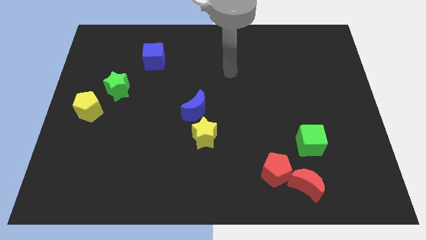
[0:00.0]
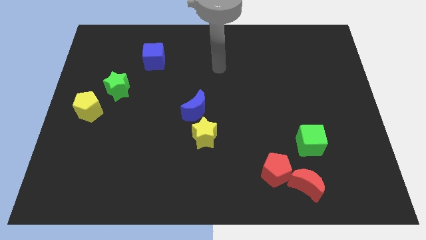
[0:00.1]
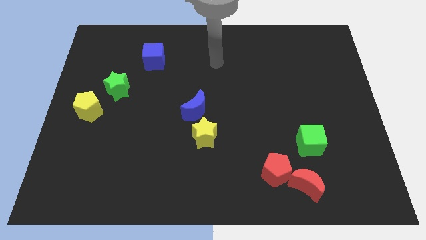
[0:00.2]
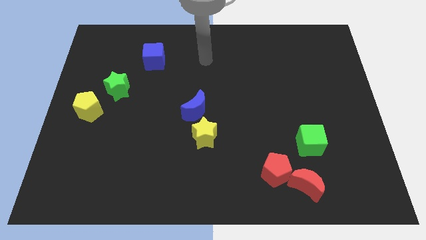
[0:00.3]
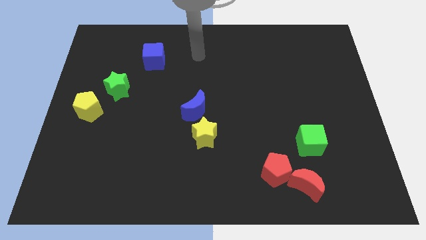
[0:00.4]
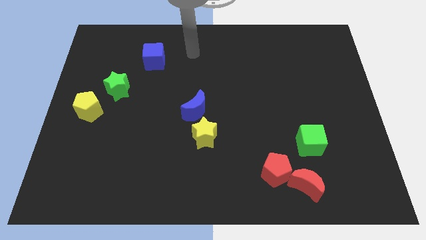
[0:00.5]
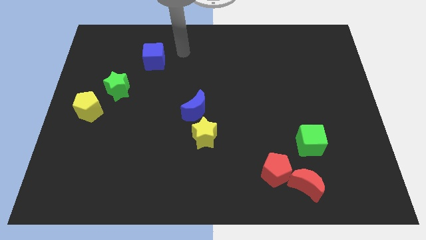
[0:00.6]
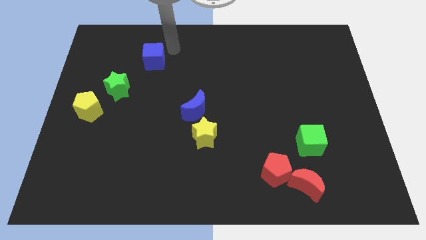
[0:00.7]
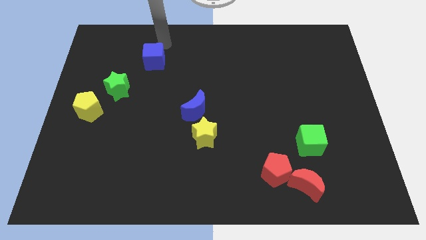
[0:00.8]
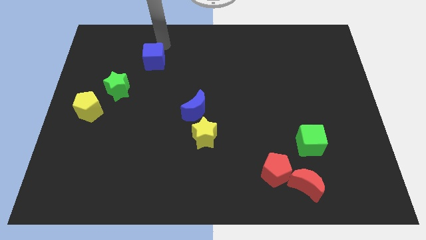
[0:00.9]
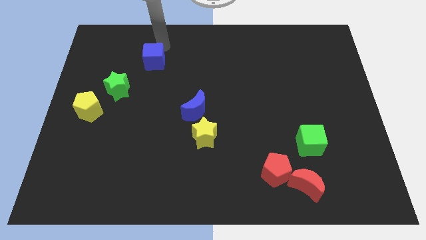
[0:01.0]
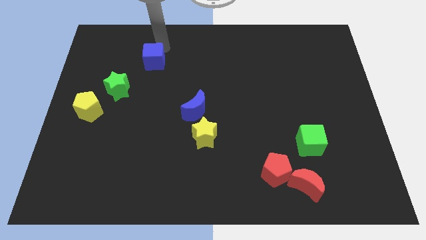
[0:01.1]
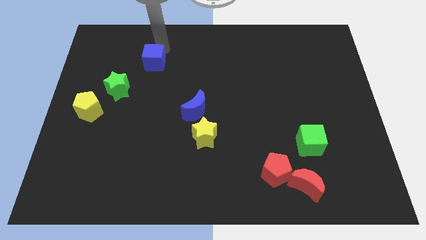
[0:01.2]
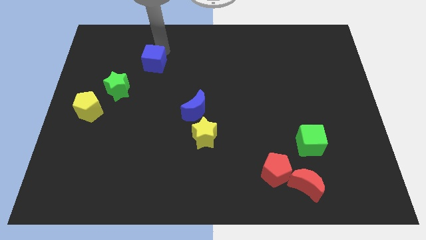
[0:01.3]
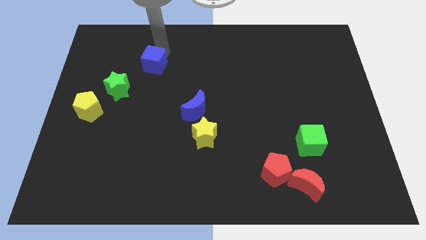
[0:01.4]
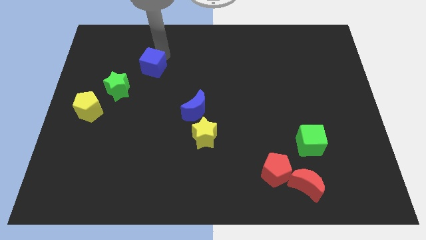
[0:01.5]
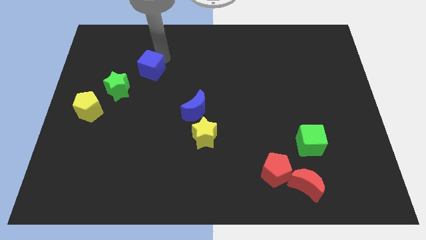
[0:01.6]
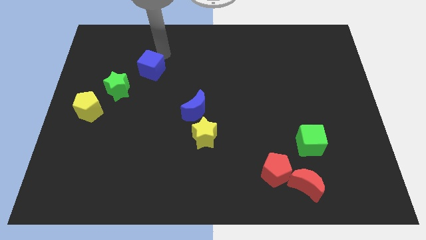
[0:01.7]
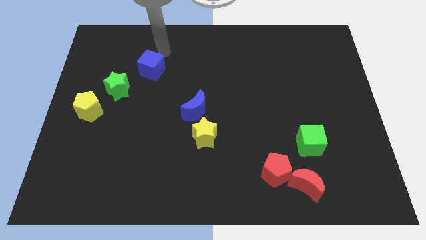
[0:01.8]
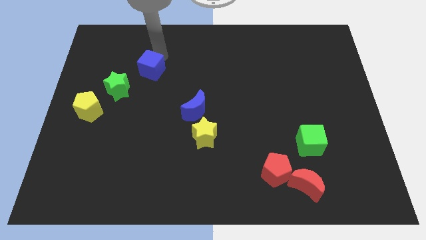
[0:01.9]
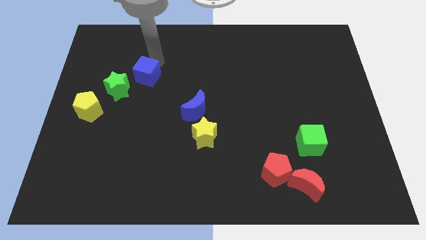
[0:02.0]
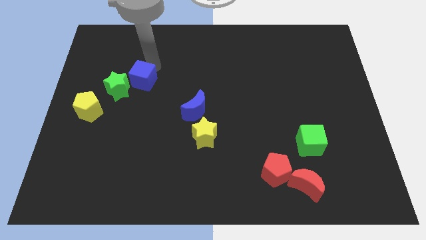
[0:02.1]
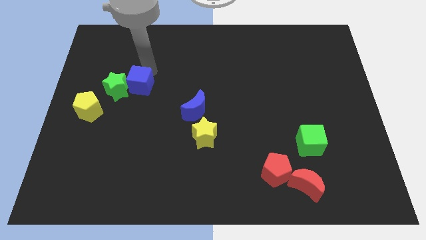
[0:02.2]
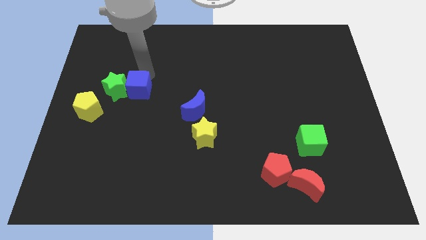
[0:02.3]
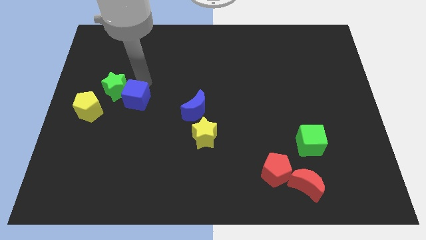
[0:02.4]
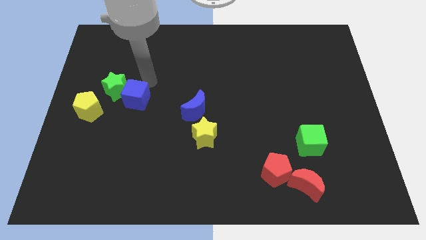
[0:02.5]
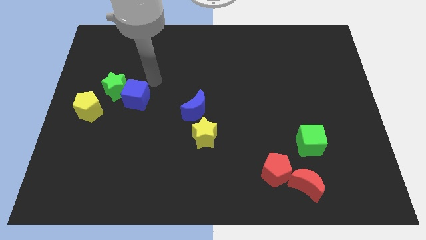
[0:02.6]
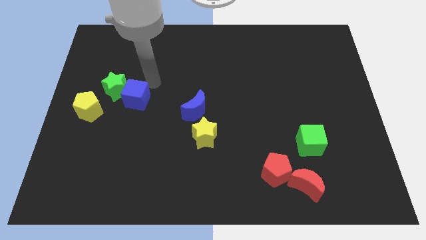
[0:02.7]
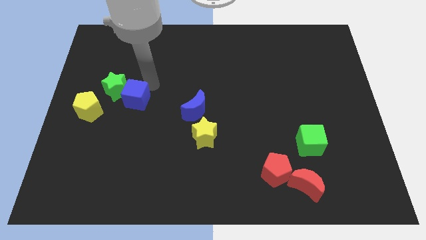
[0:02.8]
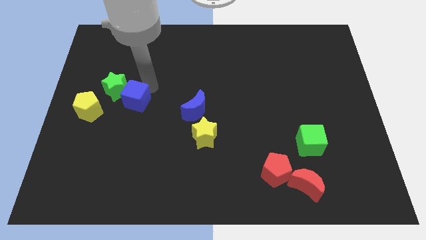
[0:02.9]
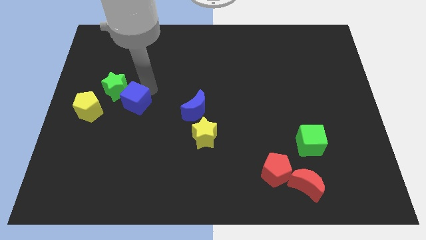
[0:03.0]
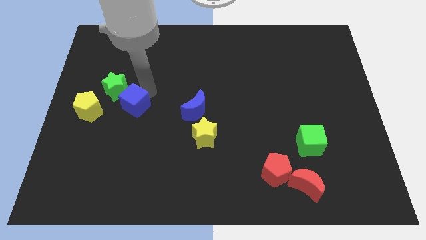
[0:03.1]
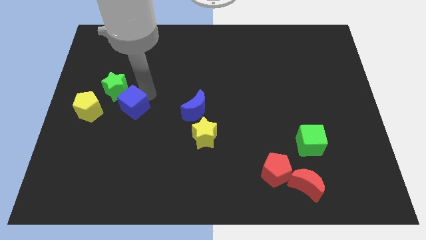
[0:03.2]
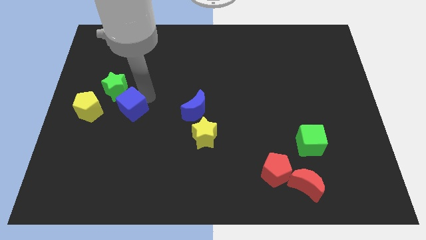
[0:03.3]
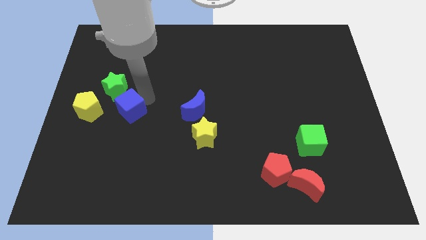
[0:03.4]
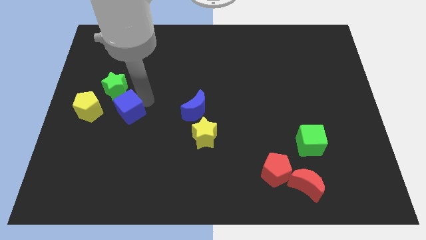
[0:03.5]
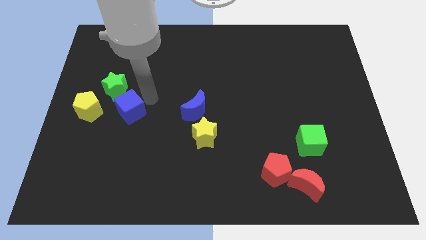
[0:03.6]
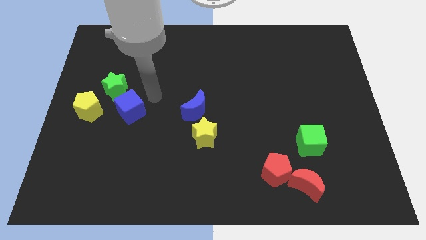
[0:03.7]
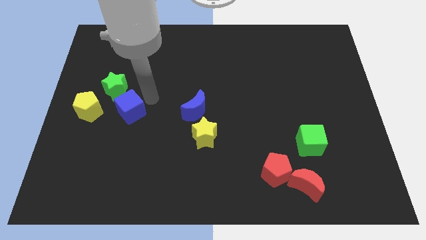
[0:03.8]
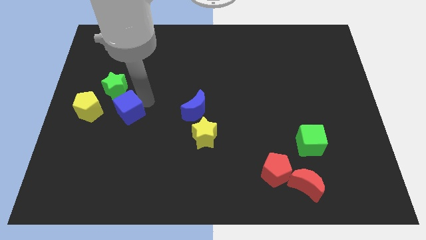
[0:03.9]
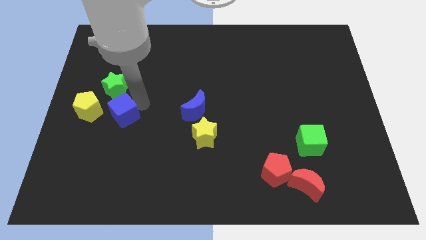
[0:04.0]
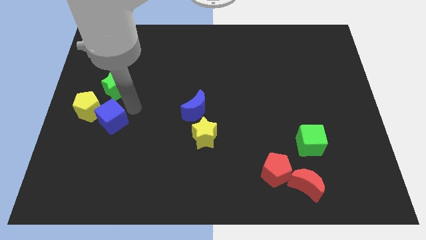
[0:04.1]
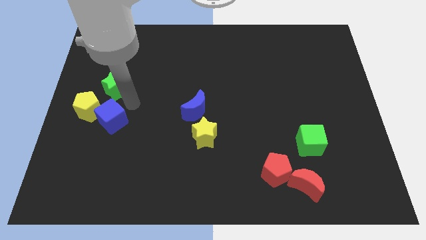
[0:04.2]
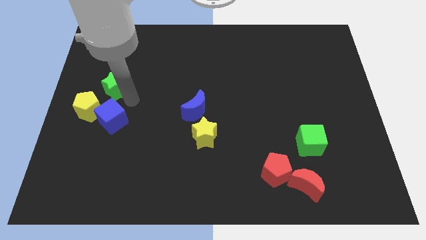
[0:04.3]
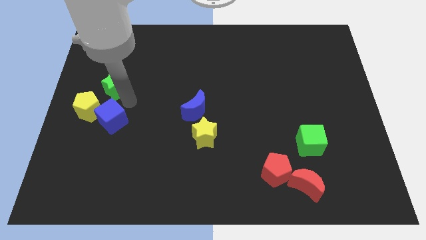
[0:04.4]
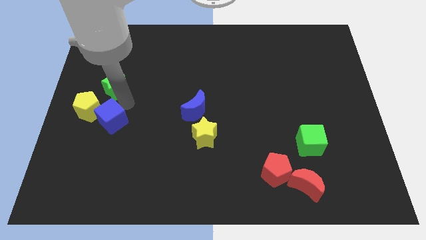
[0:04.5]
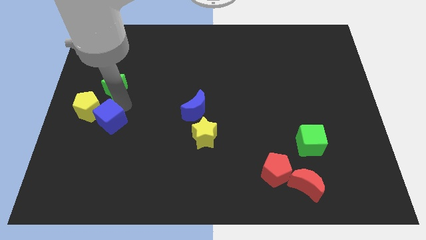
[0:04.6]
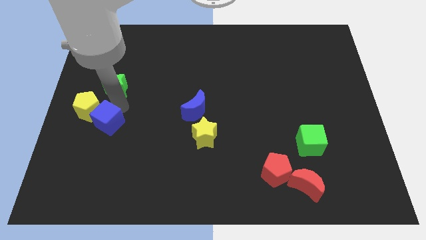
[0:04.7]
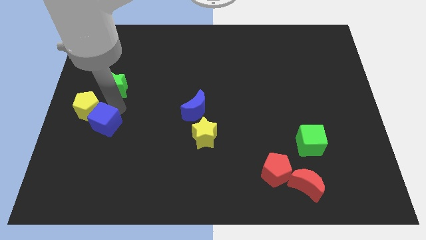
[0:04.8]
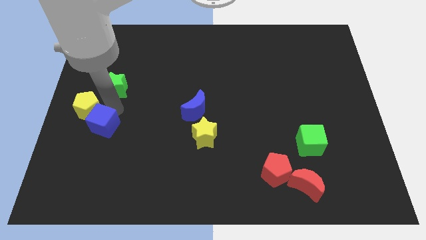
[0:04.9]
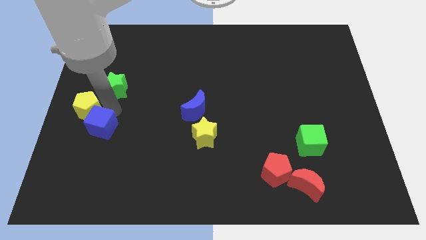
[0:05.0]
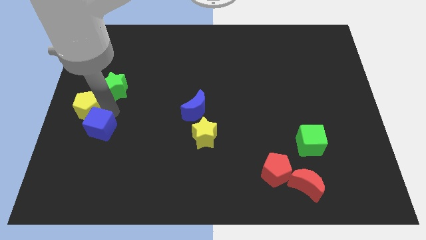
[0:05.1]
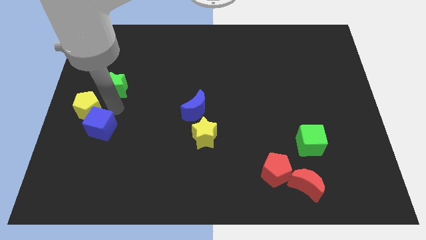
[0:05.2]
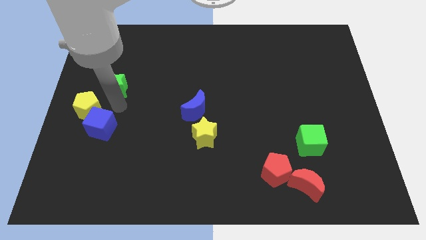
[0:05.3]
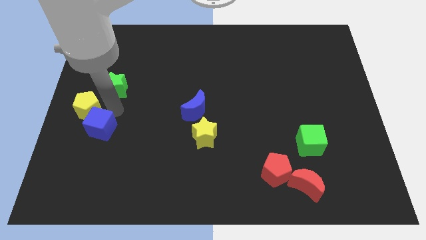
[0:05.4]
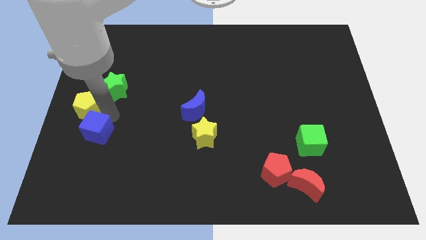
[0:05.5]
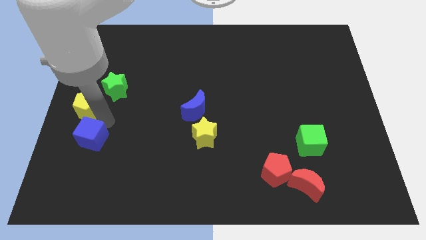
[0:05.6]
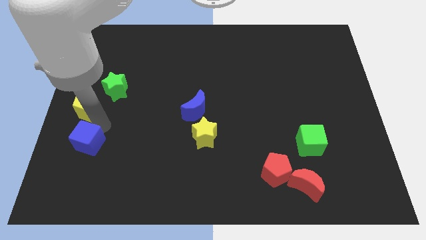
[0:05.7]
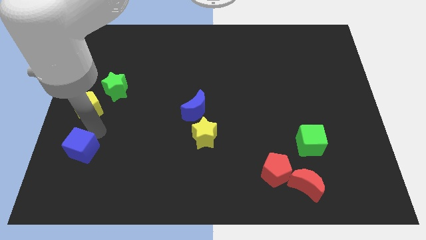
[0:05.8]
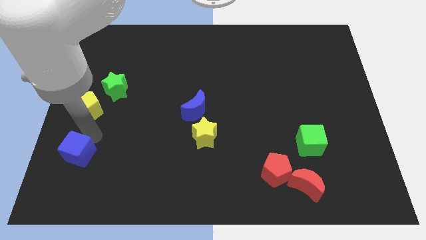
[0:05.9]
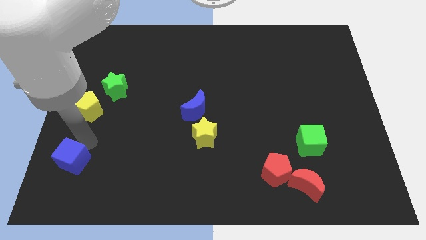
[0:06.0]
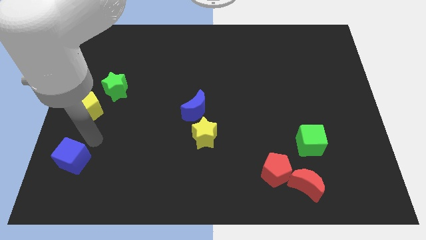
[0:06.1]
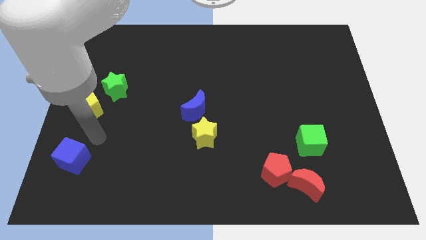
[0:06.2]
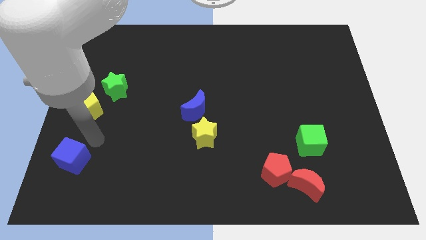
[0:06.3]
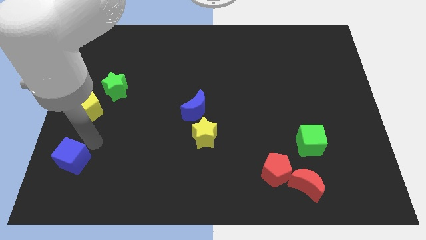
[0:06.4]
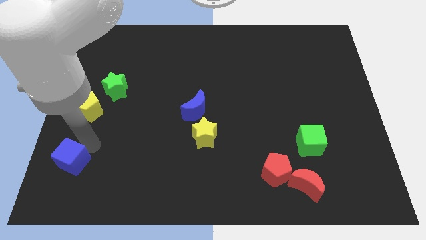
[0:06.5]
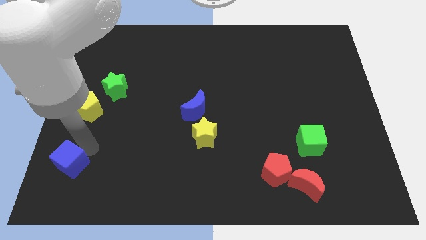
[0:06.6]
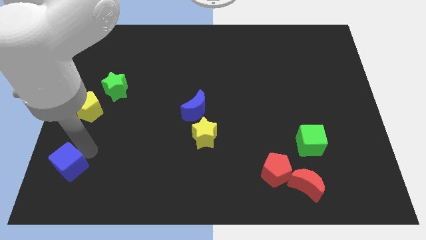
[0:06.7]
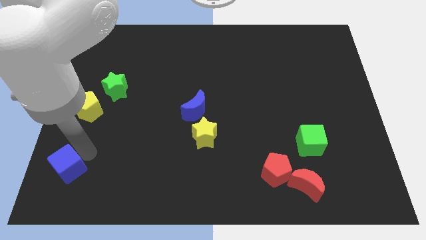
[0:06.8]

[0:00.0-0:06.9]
push the blue cube to the bottom left of the board
